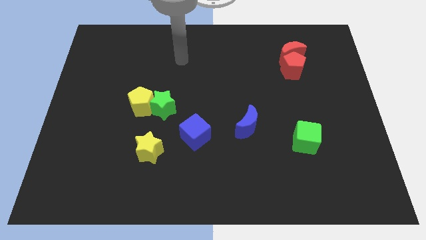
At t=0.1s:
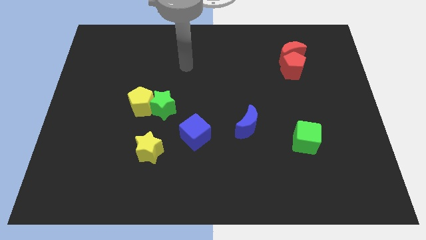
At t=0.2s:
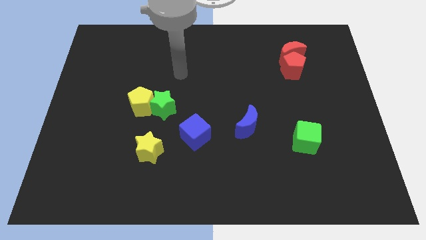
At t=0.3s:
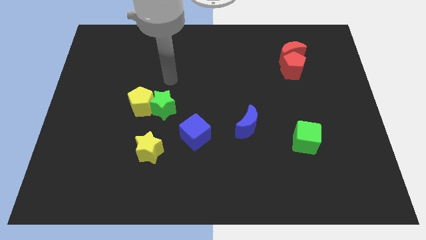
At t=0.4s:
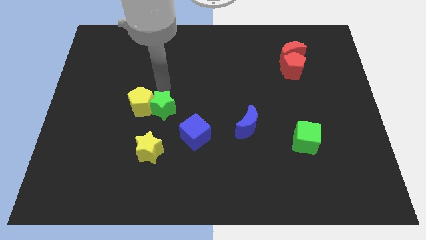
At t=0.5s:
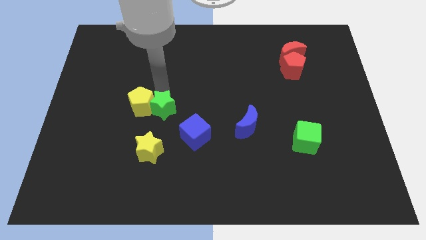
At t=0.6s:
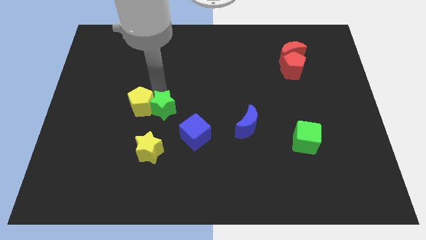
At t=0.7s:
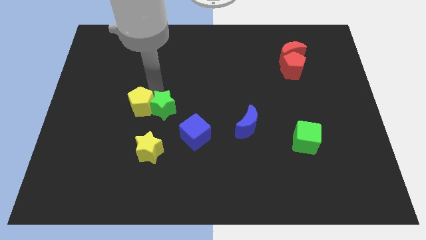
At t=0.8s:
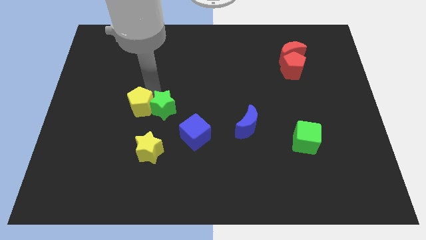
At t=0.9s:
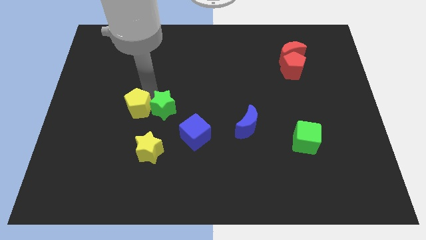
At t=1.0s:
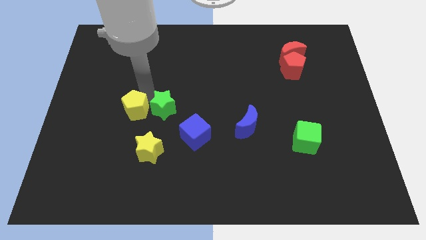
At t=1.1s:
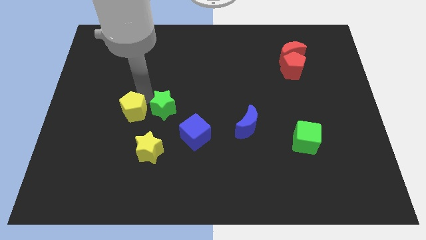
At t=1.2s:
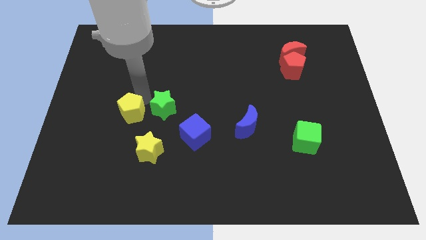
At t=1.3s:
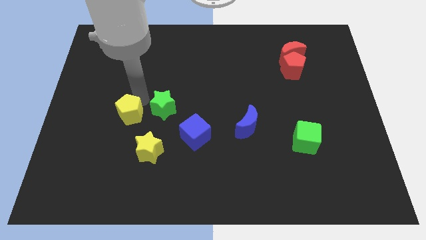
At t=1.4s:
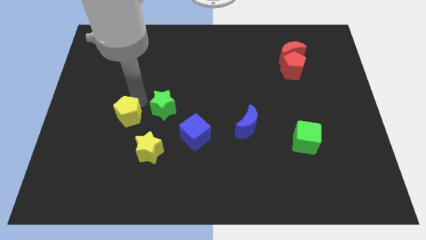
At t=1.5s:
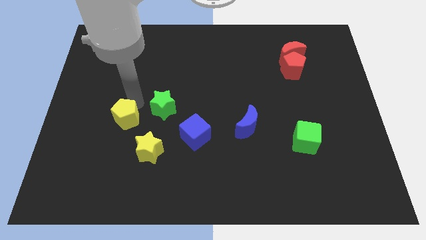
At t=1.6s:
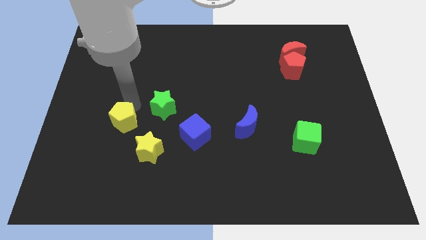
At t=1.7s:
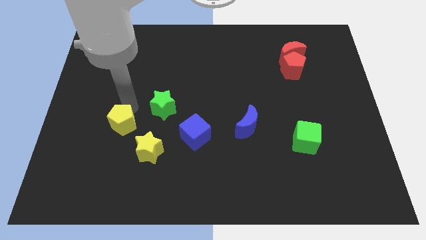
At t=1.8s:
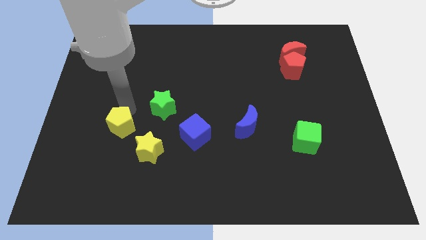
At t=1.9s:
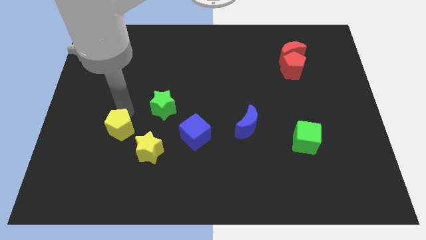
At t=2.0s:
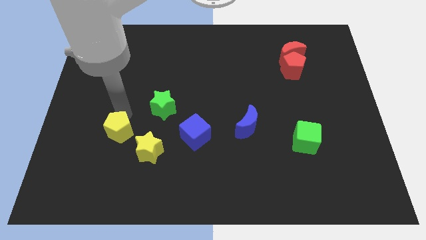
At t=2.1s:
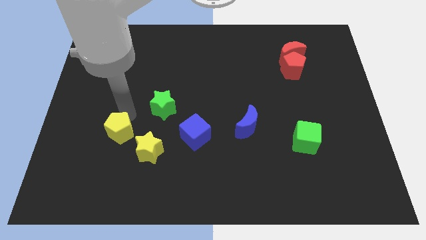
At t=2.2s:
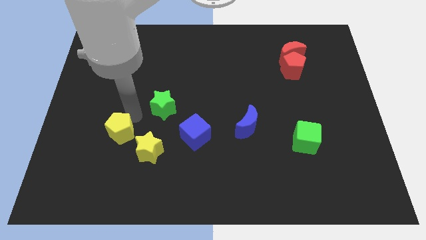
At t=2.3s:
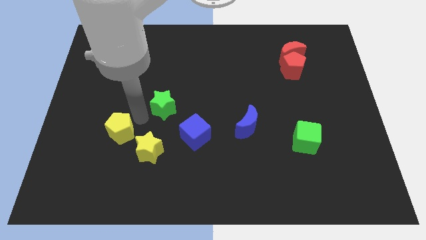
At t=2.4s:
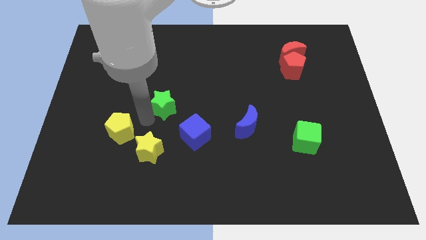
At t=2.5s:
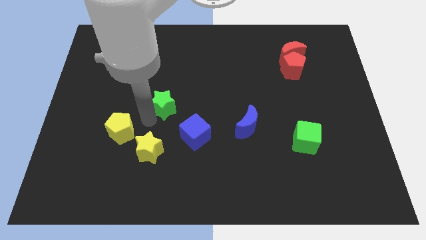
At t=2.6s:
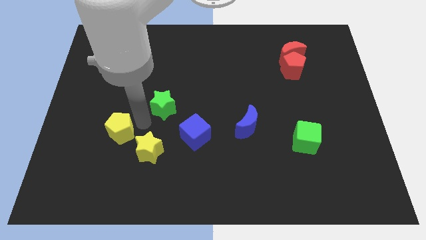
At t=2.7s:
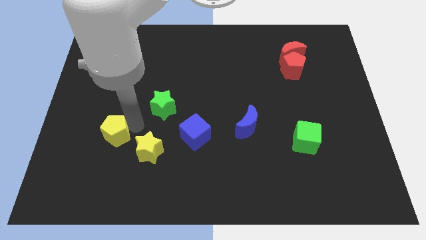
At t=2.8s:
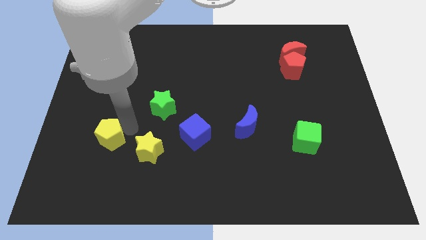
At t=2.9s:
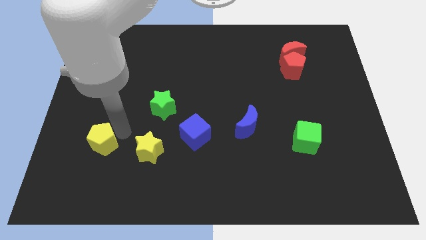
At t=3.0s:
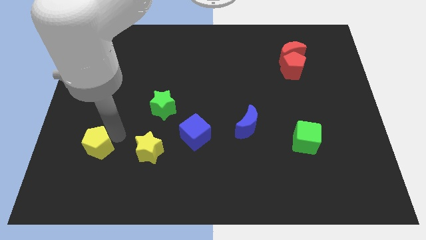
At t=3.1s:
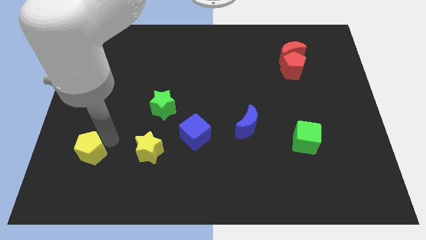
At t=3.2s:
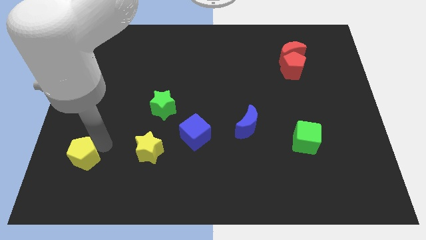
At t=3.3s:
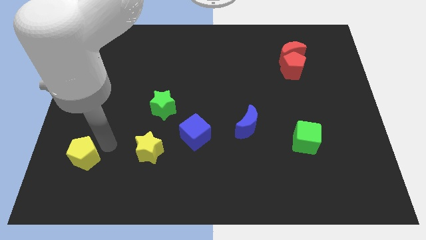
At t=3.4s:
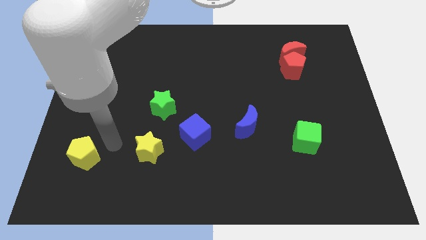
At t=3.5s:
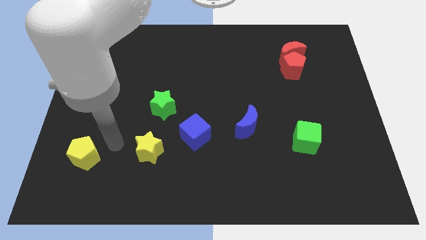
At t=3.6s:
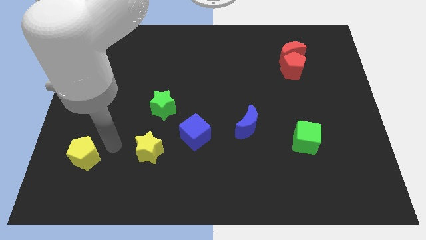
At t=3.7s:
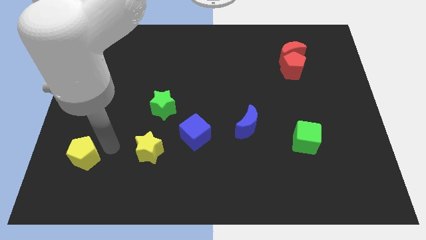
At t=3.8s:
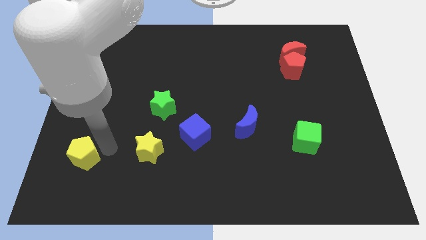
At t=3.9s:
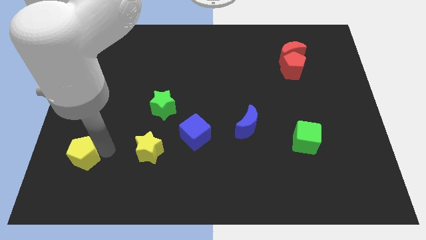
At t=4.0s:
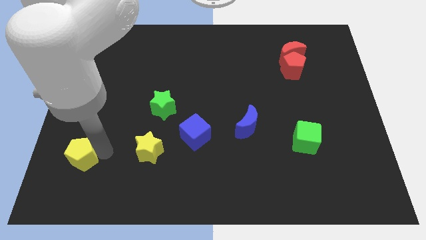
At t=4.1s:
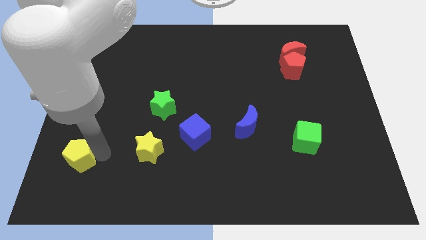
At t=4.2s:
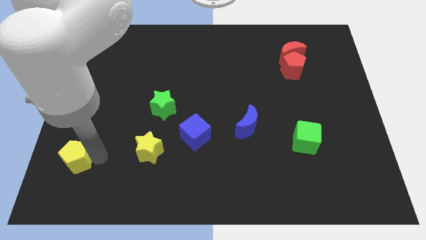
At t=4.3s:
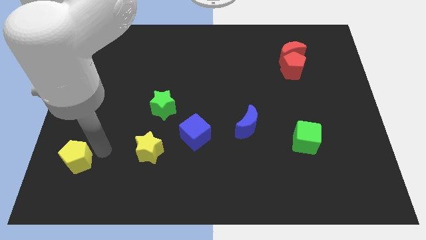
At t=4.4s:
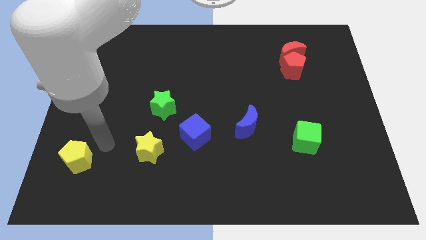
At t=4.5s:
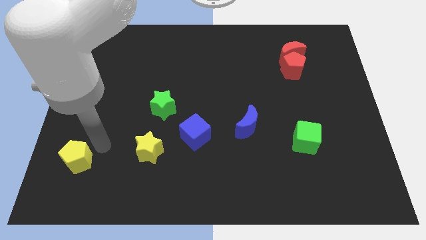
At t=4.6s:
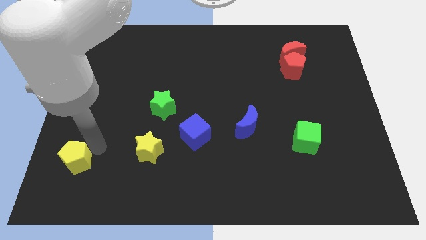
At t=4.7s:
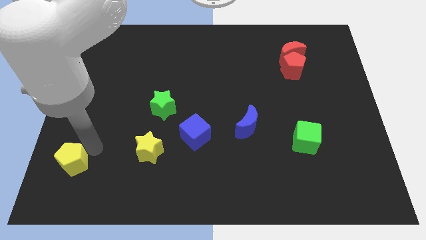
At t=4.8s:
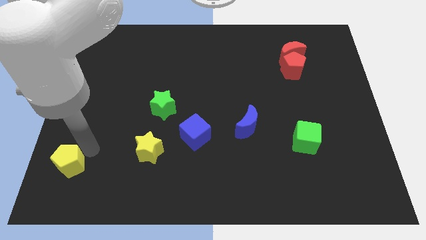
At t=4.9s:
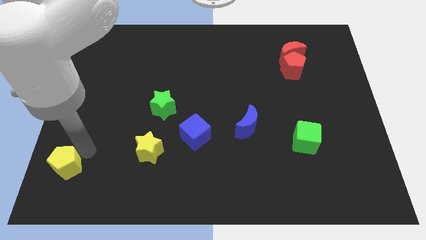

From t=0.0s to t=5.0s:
push the yellow pentagon to the bottom left of the board

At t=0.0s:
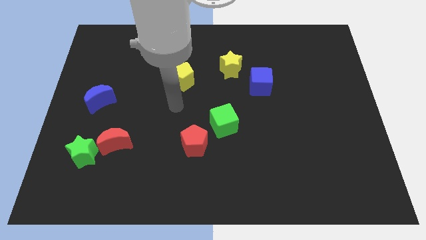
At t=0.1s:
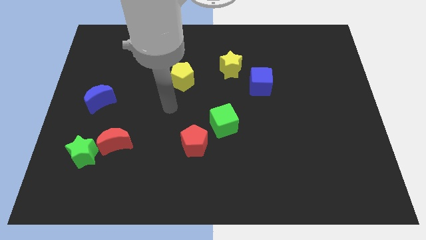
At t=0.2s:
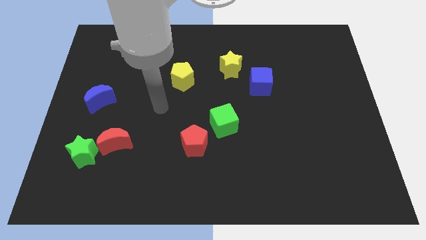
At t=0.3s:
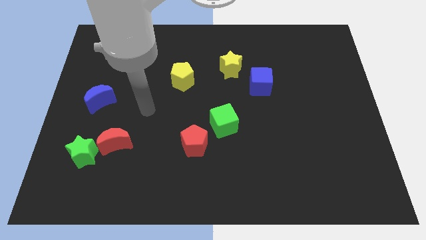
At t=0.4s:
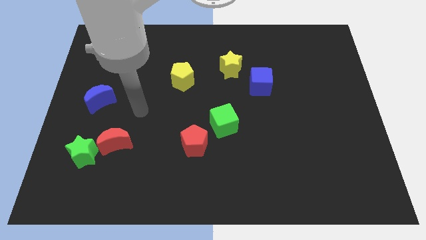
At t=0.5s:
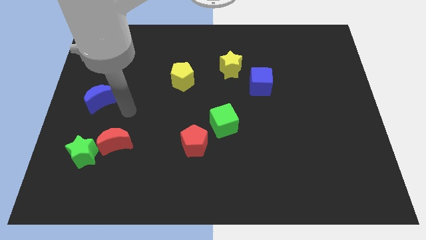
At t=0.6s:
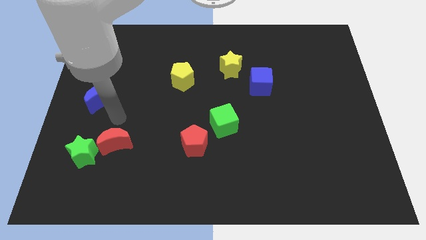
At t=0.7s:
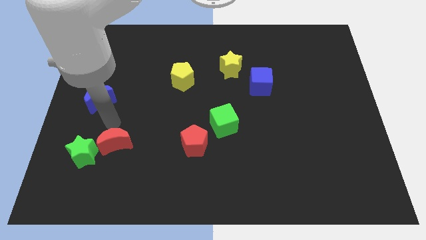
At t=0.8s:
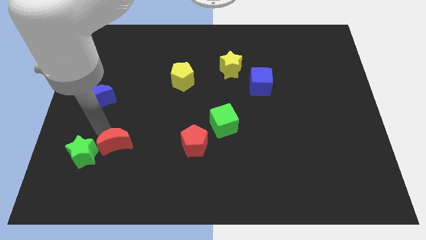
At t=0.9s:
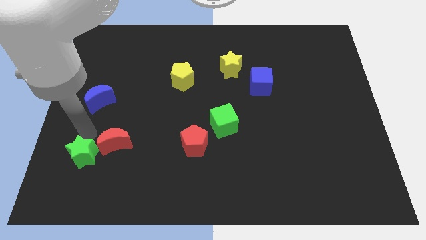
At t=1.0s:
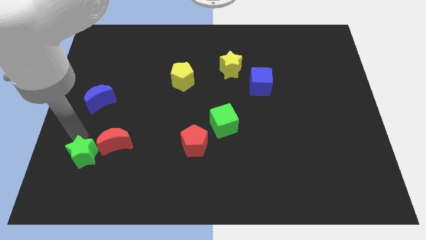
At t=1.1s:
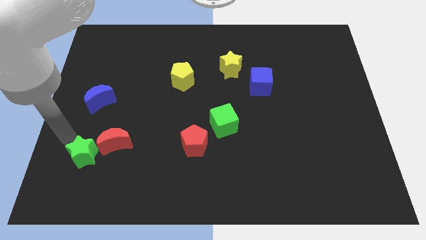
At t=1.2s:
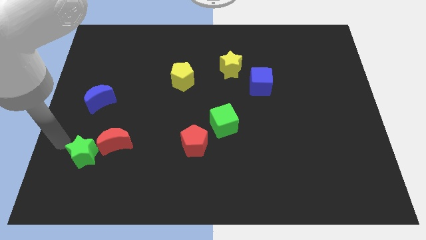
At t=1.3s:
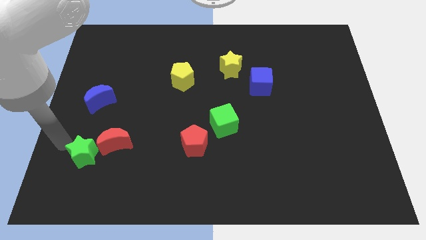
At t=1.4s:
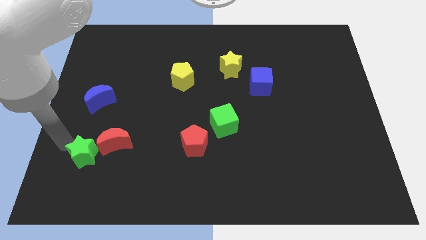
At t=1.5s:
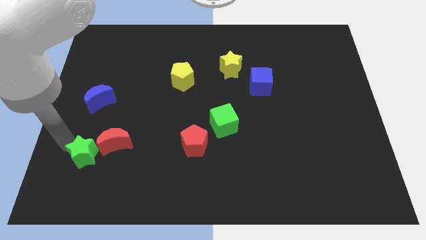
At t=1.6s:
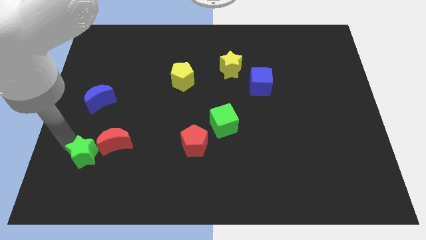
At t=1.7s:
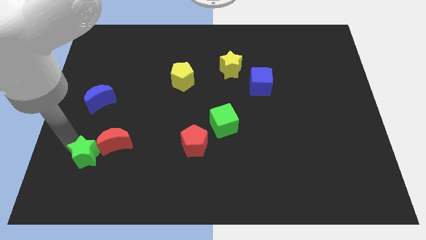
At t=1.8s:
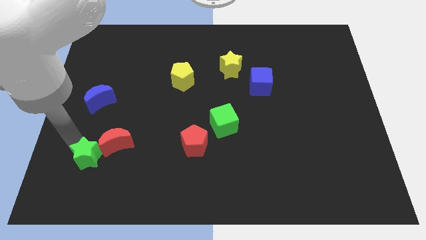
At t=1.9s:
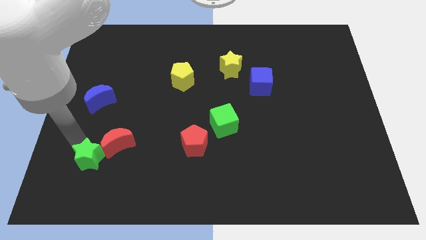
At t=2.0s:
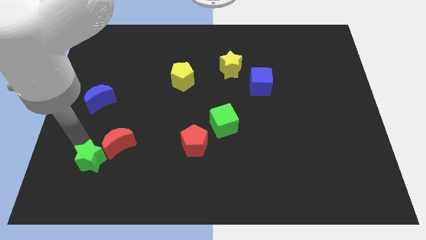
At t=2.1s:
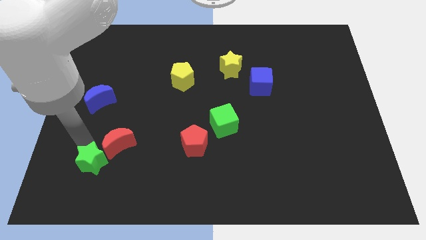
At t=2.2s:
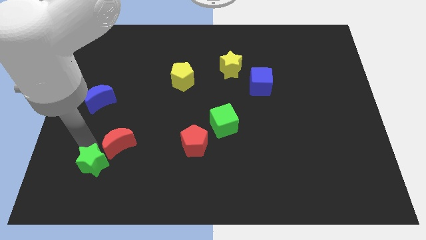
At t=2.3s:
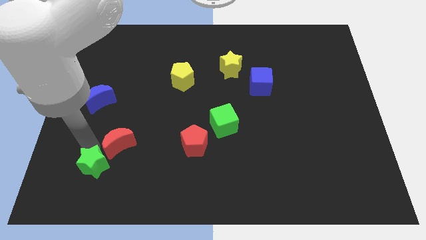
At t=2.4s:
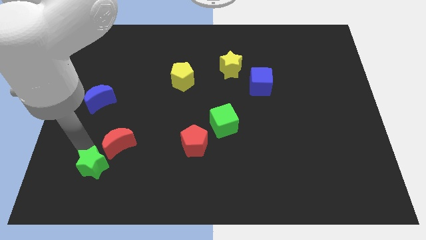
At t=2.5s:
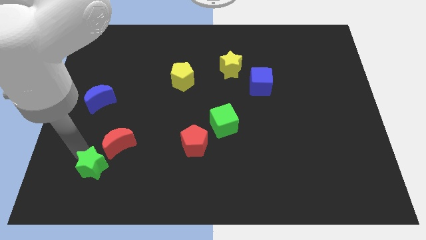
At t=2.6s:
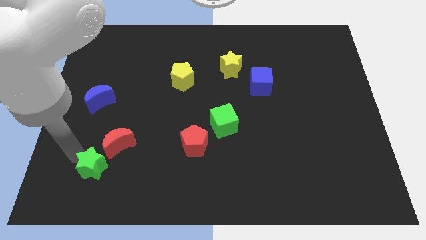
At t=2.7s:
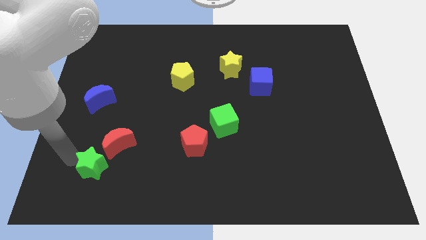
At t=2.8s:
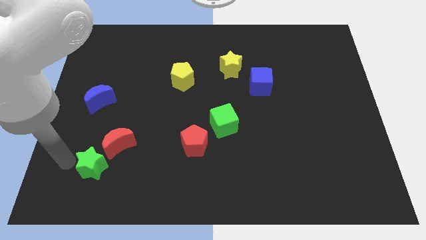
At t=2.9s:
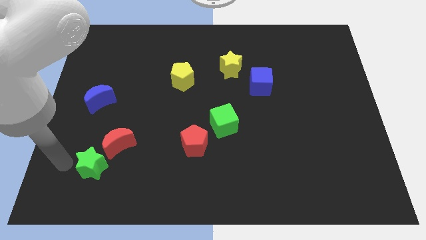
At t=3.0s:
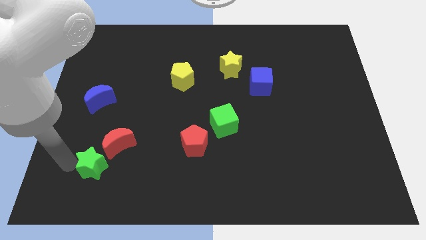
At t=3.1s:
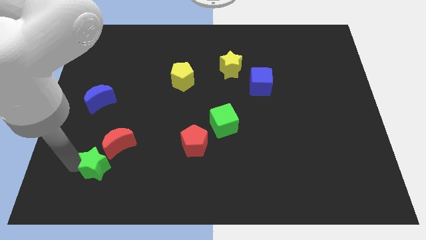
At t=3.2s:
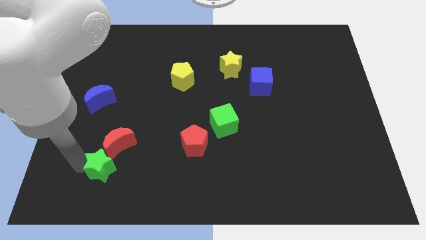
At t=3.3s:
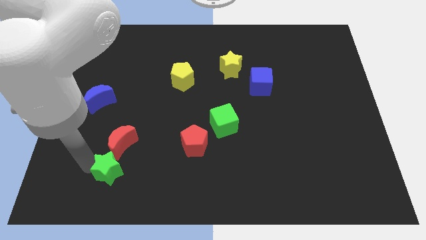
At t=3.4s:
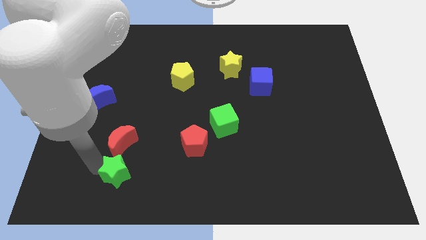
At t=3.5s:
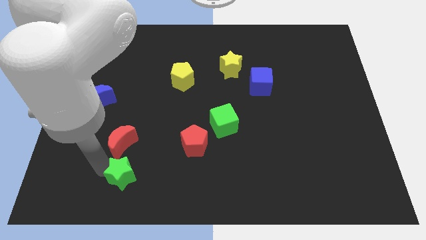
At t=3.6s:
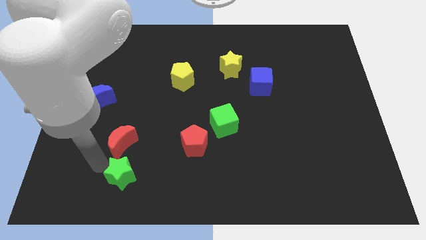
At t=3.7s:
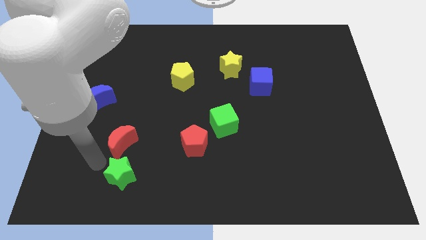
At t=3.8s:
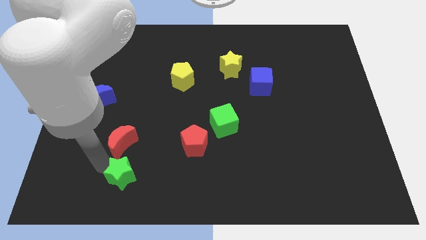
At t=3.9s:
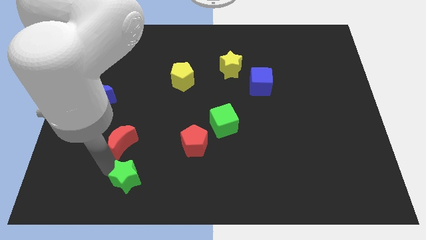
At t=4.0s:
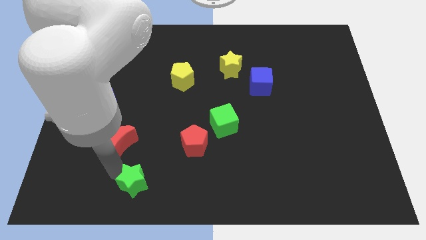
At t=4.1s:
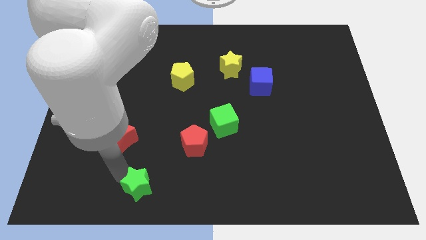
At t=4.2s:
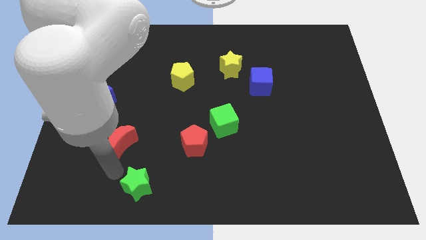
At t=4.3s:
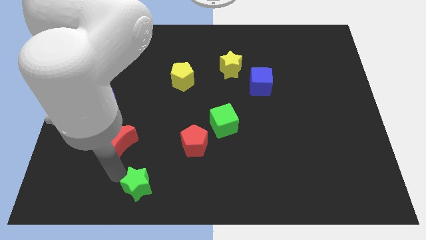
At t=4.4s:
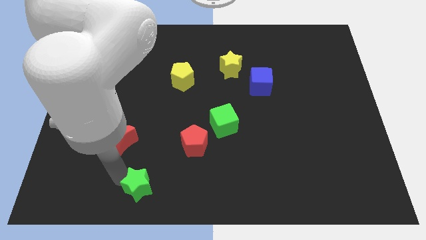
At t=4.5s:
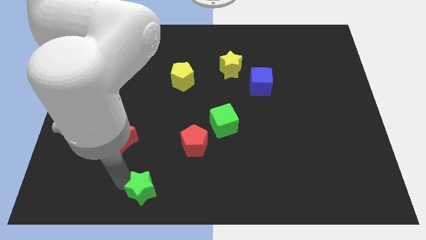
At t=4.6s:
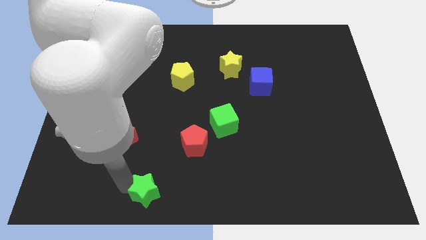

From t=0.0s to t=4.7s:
slide the green star to the bottom
